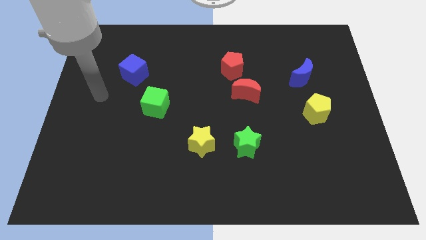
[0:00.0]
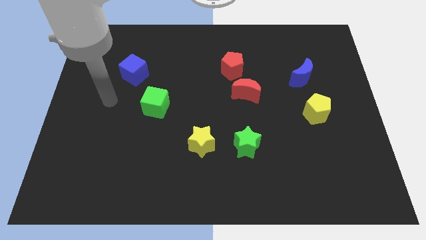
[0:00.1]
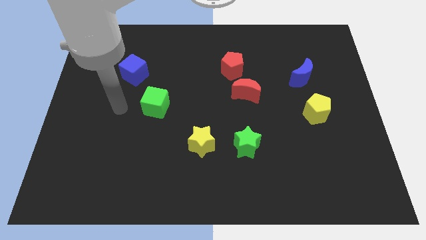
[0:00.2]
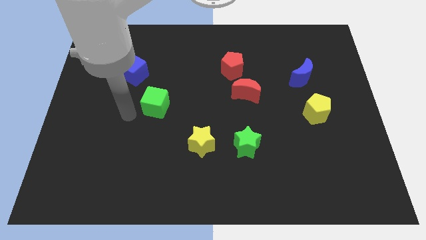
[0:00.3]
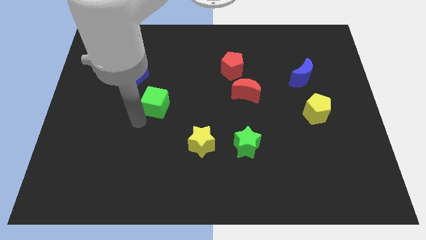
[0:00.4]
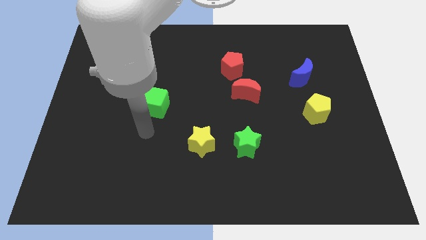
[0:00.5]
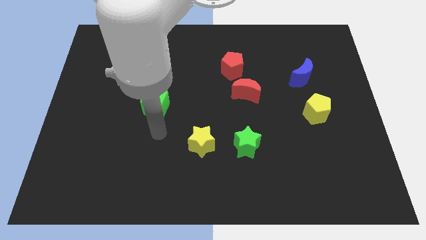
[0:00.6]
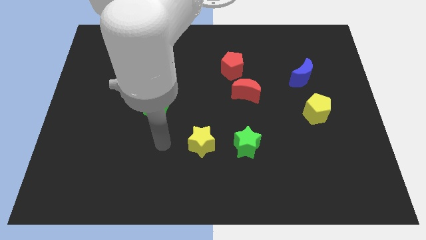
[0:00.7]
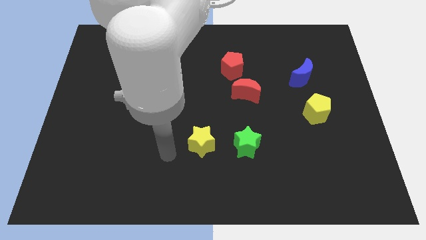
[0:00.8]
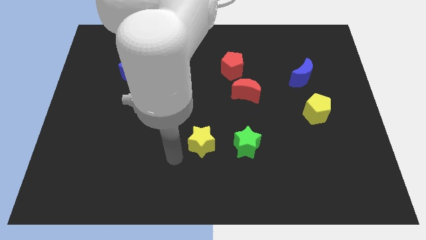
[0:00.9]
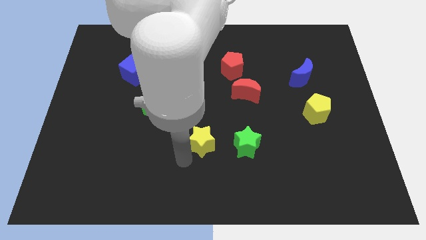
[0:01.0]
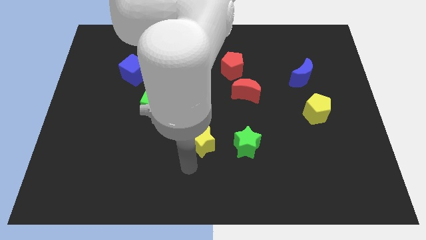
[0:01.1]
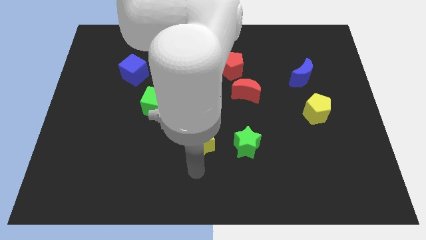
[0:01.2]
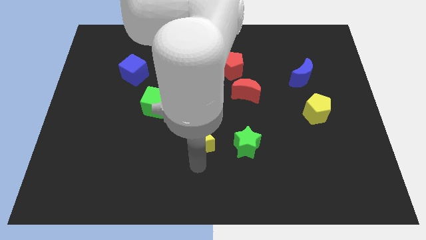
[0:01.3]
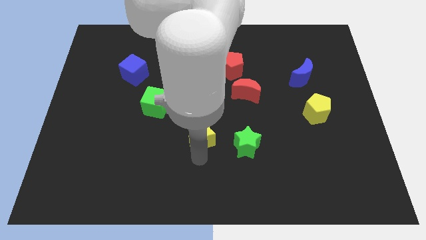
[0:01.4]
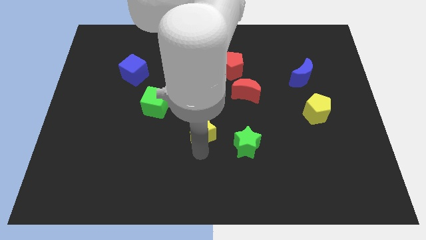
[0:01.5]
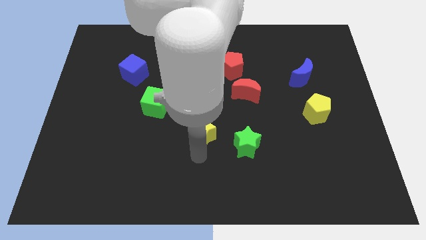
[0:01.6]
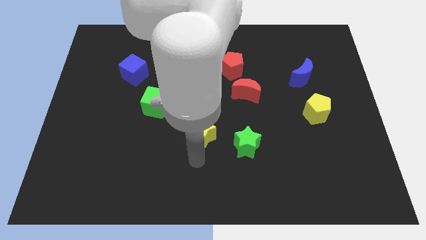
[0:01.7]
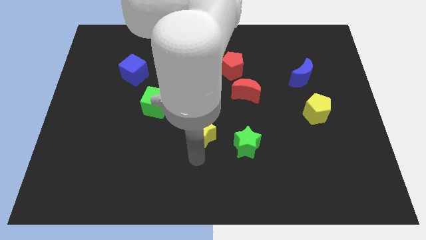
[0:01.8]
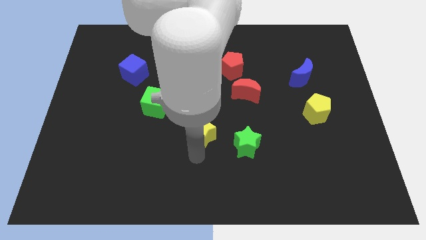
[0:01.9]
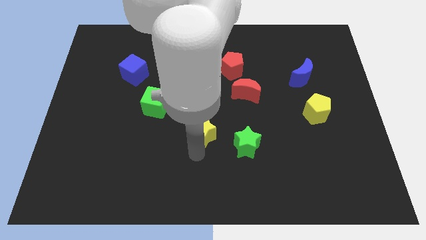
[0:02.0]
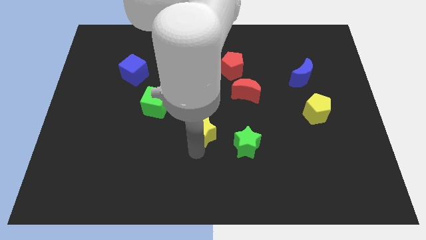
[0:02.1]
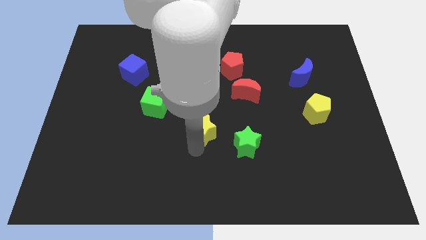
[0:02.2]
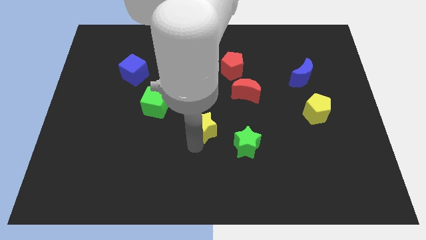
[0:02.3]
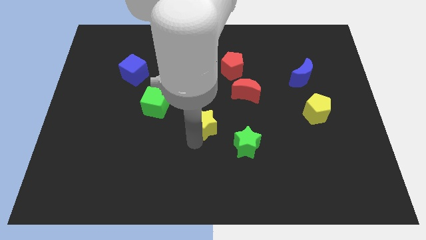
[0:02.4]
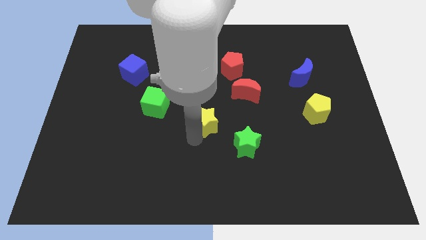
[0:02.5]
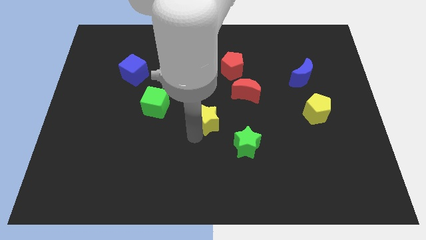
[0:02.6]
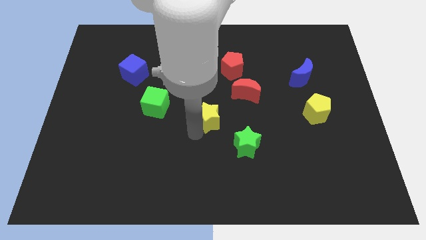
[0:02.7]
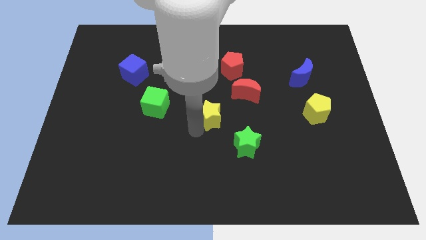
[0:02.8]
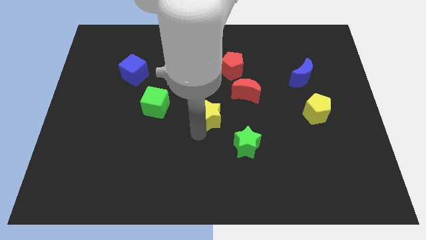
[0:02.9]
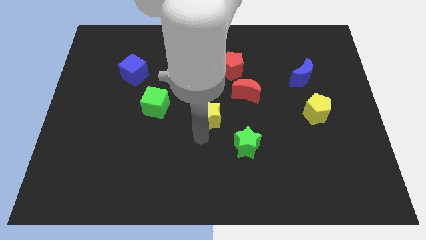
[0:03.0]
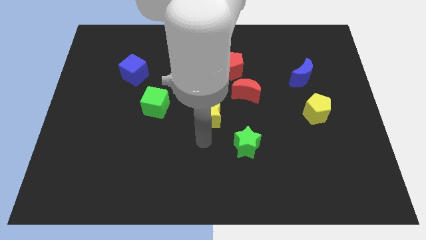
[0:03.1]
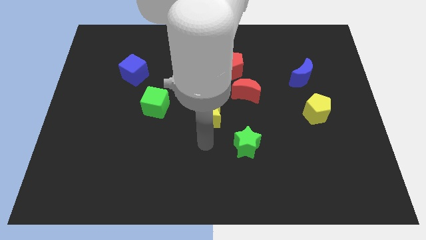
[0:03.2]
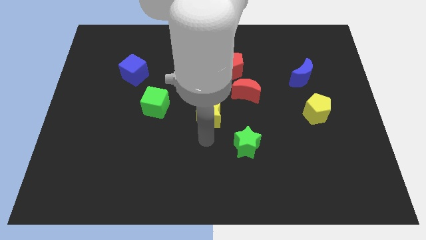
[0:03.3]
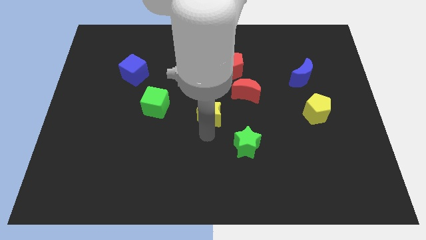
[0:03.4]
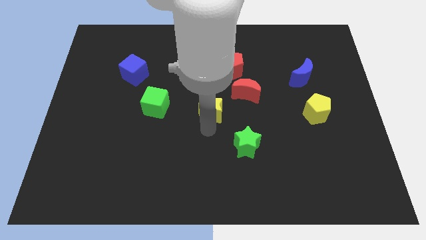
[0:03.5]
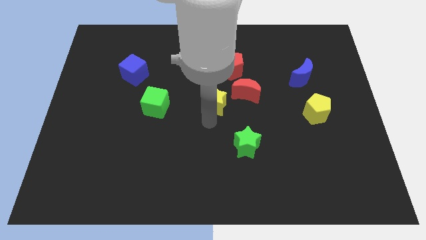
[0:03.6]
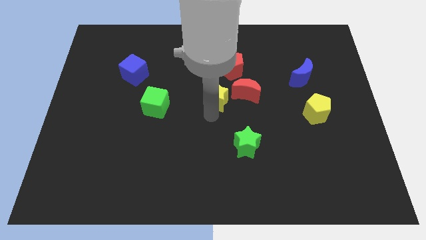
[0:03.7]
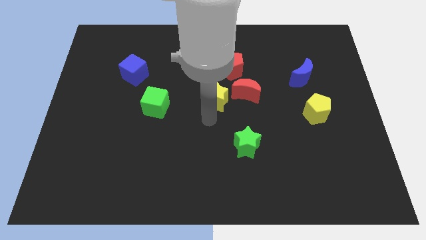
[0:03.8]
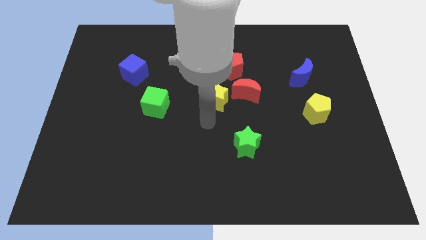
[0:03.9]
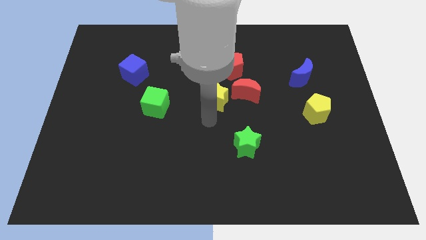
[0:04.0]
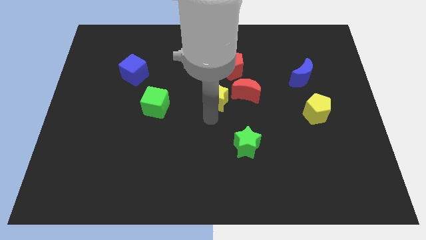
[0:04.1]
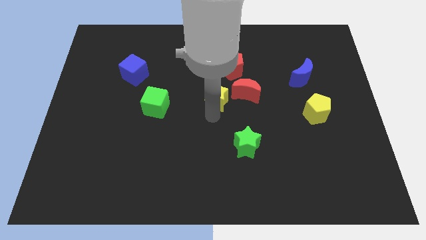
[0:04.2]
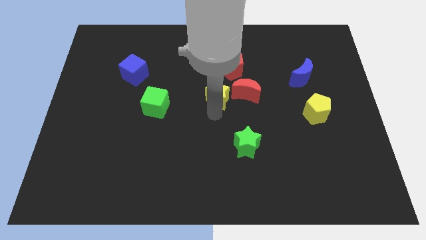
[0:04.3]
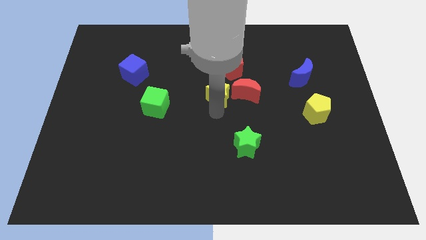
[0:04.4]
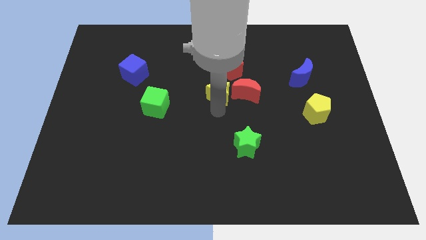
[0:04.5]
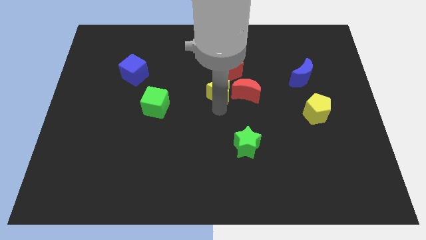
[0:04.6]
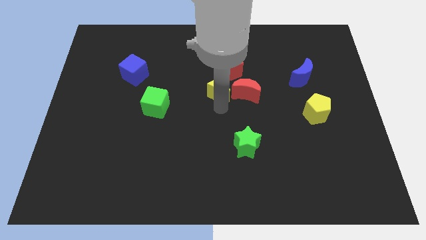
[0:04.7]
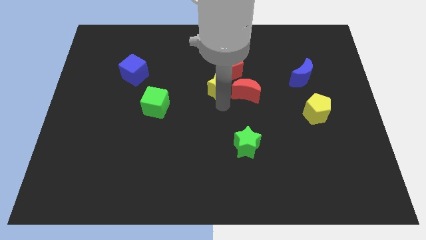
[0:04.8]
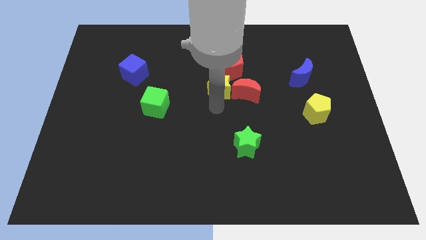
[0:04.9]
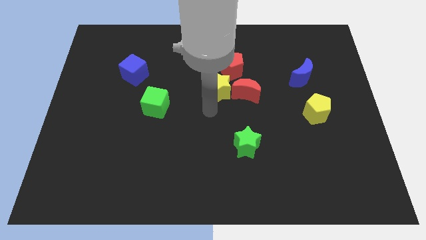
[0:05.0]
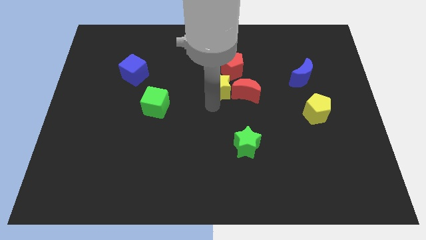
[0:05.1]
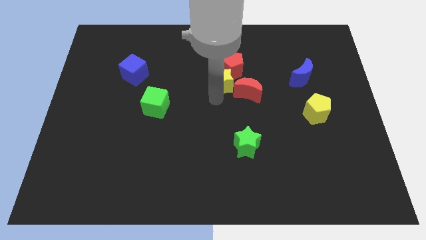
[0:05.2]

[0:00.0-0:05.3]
move the yellow star next to the red pentagon

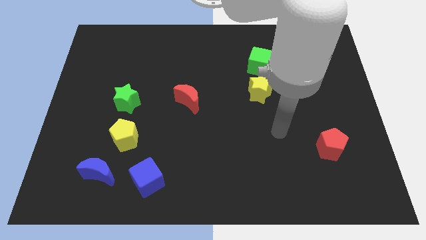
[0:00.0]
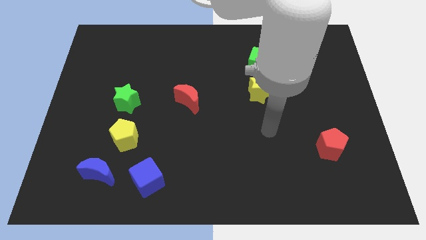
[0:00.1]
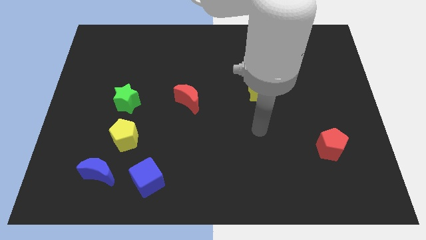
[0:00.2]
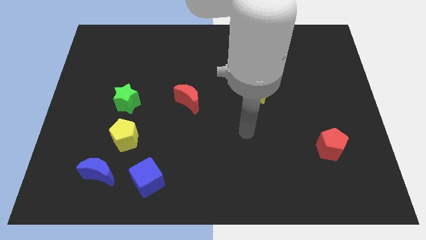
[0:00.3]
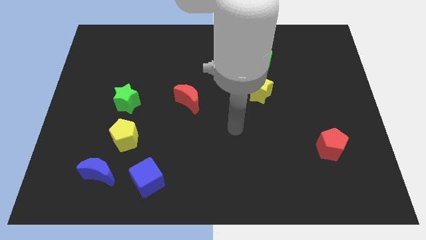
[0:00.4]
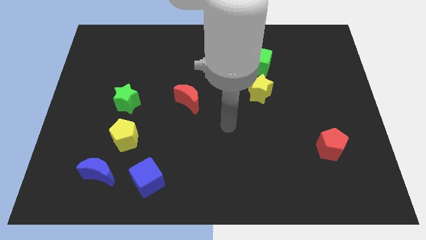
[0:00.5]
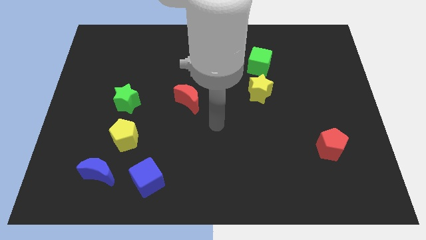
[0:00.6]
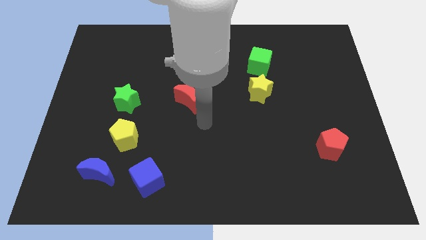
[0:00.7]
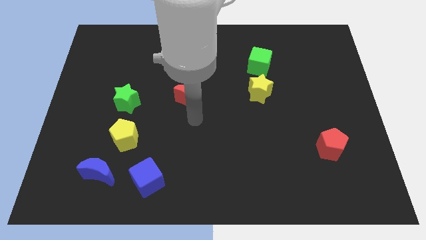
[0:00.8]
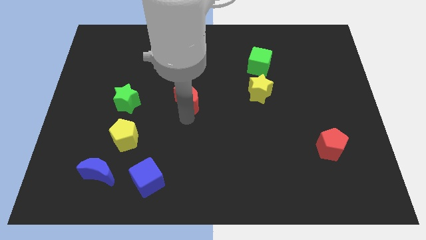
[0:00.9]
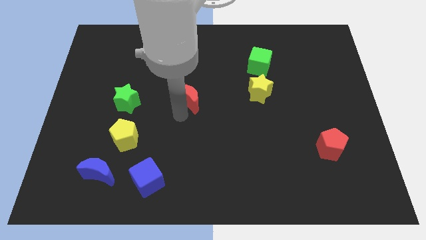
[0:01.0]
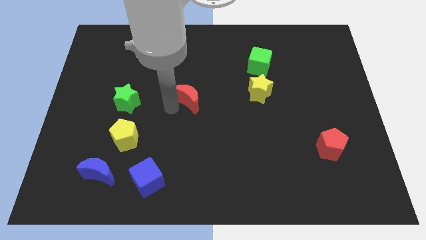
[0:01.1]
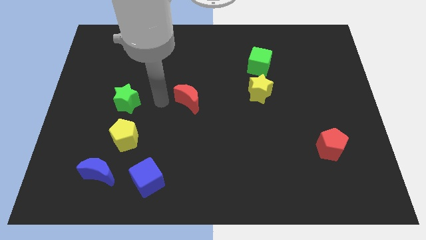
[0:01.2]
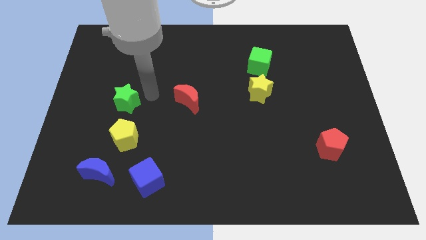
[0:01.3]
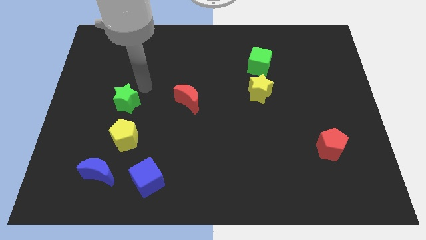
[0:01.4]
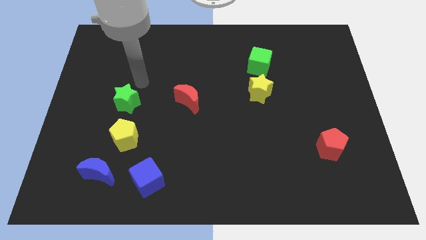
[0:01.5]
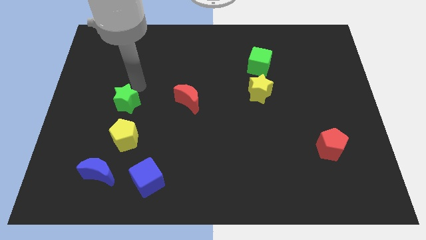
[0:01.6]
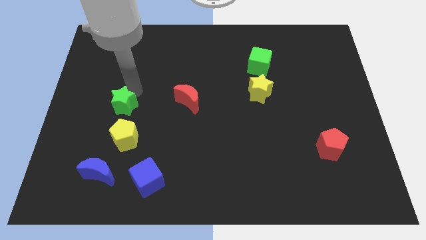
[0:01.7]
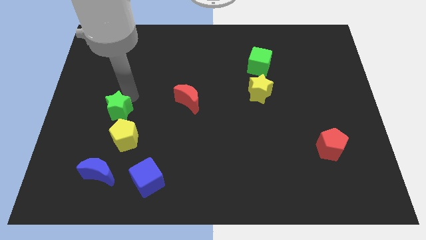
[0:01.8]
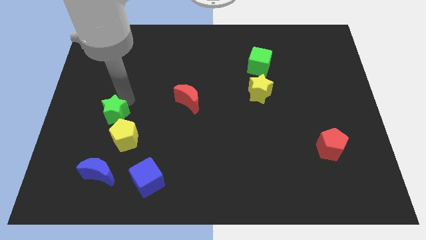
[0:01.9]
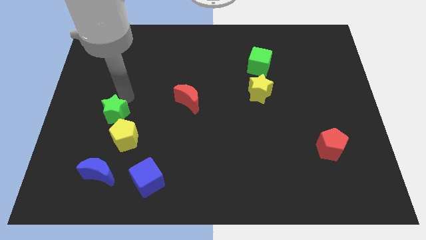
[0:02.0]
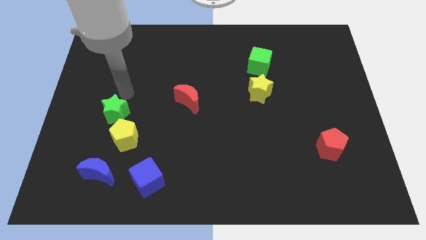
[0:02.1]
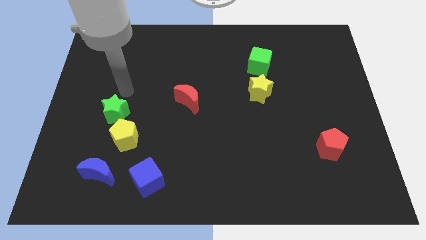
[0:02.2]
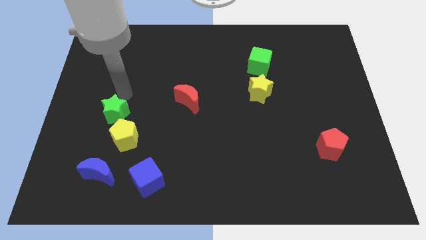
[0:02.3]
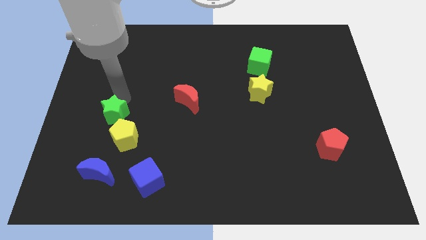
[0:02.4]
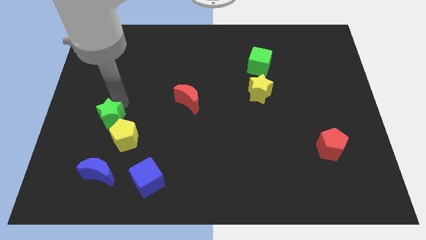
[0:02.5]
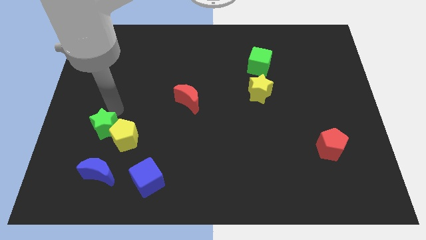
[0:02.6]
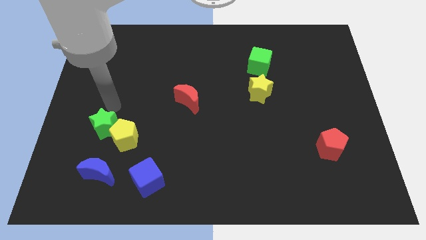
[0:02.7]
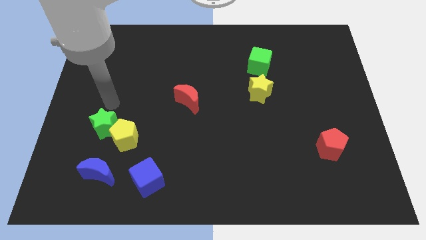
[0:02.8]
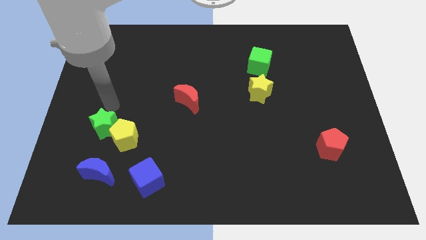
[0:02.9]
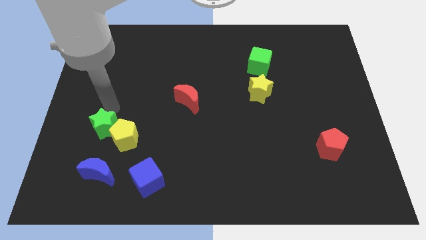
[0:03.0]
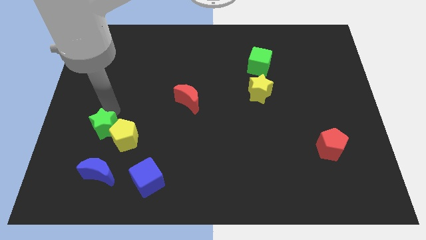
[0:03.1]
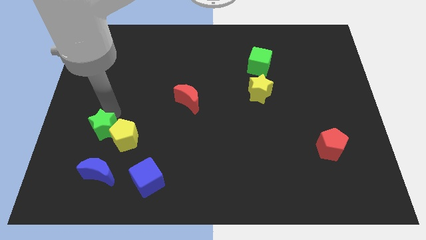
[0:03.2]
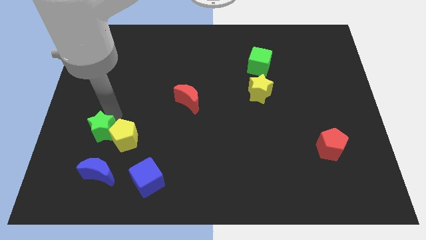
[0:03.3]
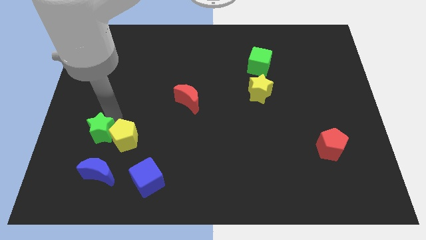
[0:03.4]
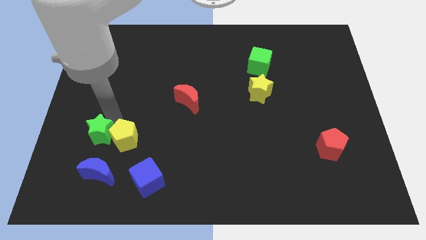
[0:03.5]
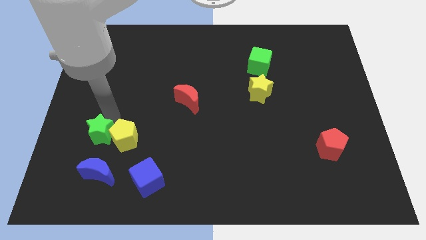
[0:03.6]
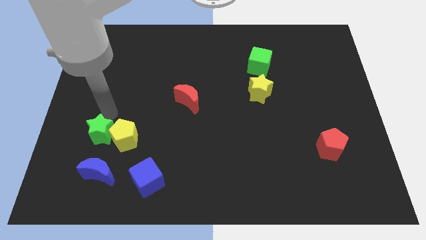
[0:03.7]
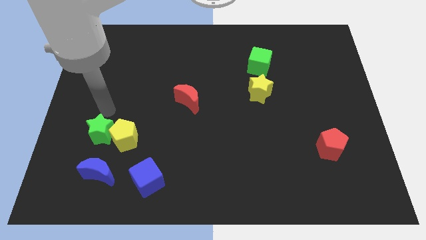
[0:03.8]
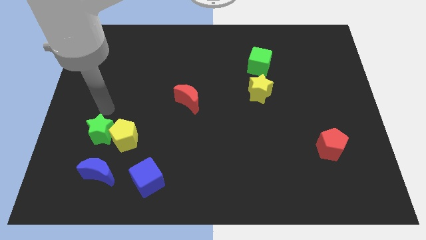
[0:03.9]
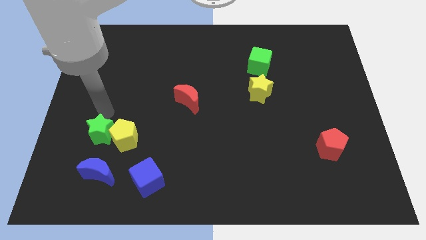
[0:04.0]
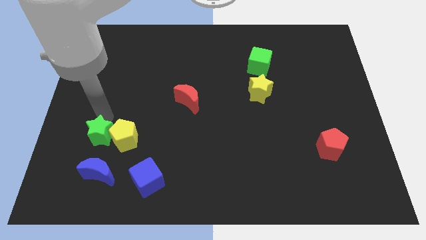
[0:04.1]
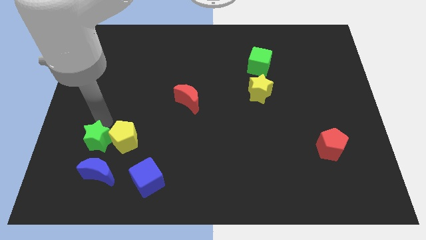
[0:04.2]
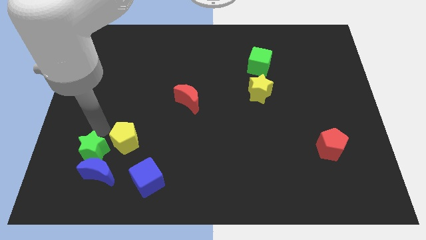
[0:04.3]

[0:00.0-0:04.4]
put the green star to the blue moon
